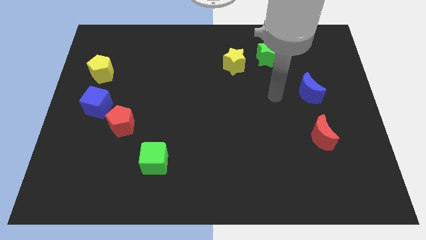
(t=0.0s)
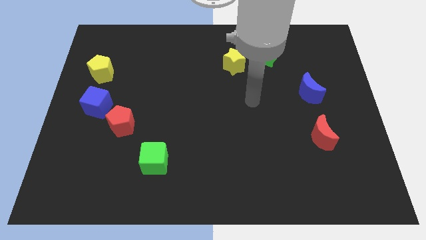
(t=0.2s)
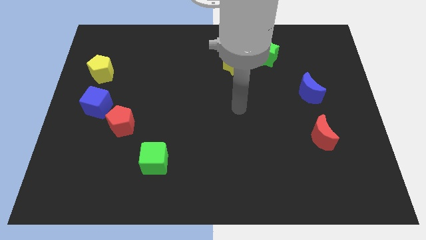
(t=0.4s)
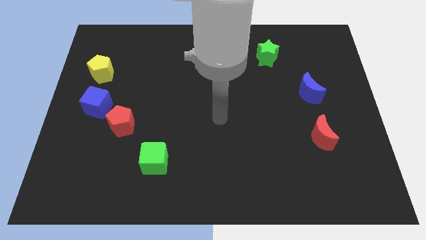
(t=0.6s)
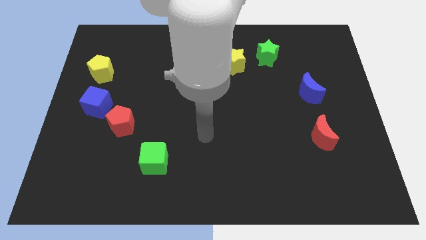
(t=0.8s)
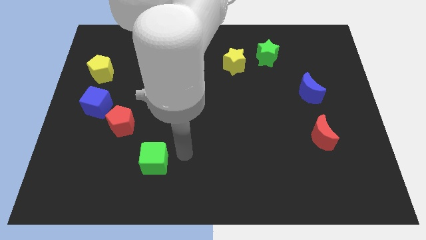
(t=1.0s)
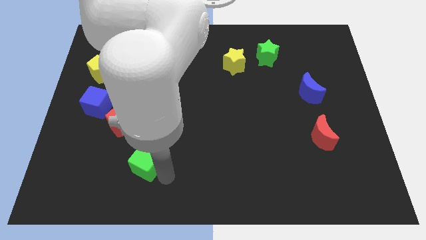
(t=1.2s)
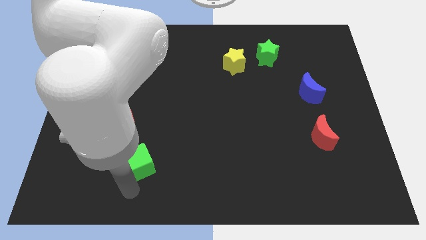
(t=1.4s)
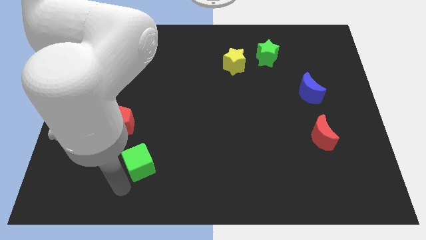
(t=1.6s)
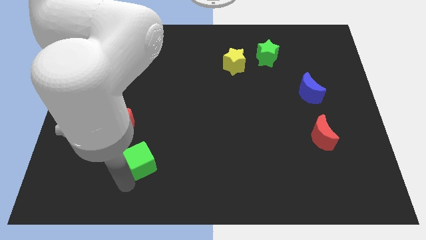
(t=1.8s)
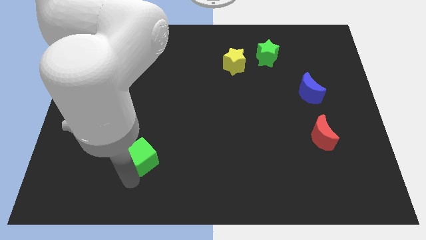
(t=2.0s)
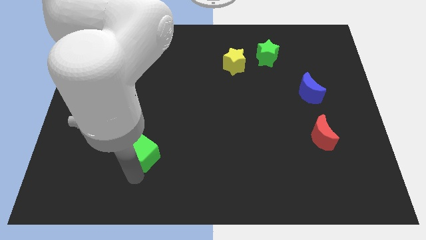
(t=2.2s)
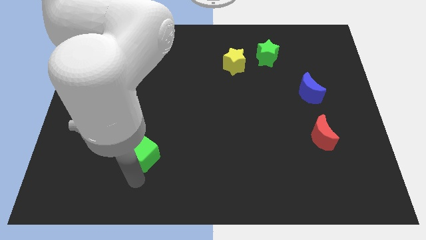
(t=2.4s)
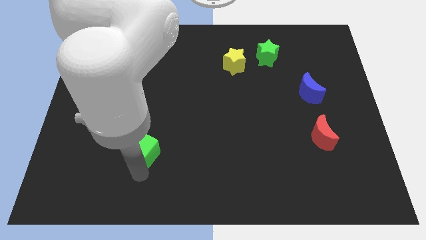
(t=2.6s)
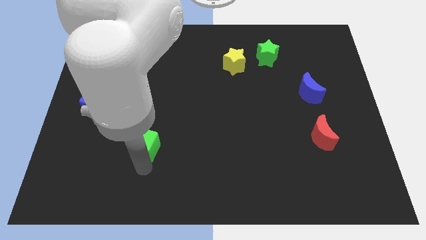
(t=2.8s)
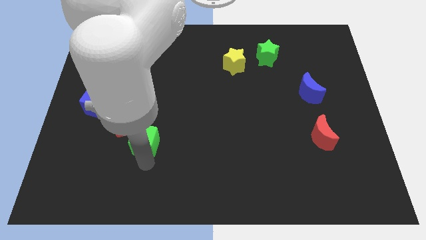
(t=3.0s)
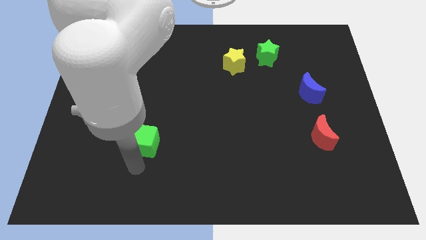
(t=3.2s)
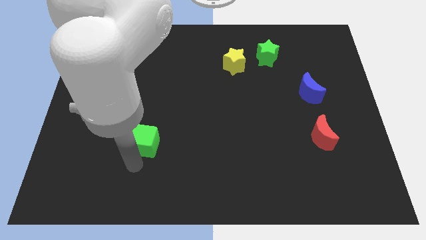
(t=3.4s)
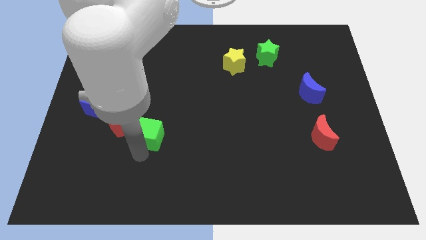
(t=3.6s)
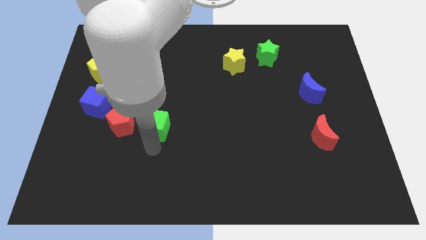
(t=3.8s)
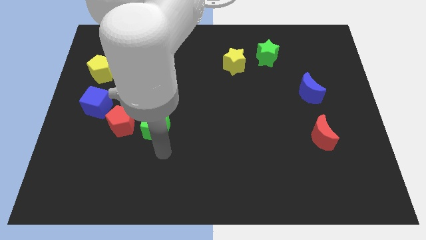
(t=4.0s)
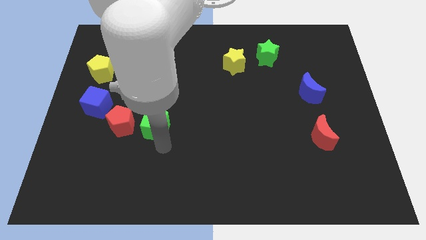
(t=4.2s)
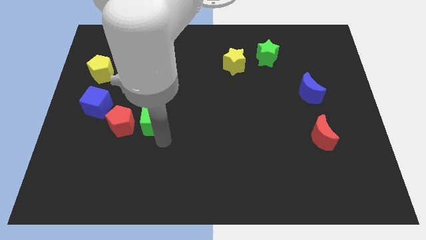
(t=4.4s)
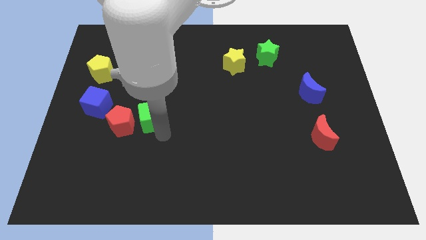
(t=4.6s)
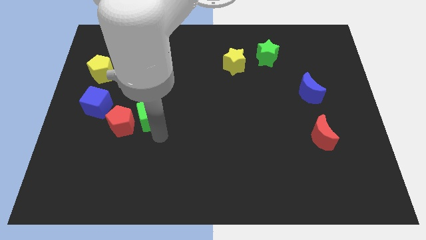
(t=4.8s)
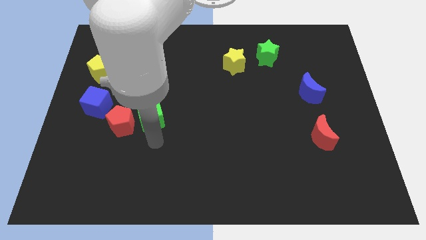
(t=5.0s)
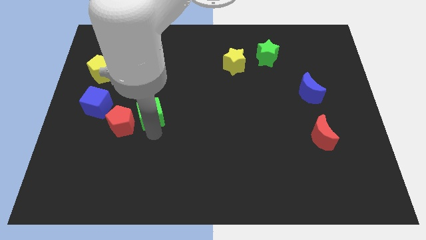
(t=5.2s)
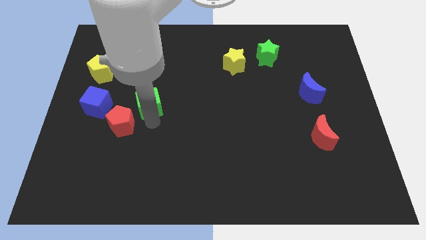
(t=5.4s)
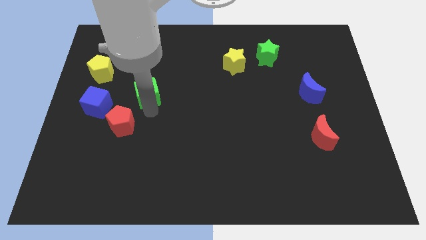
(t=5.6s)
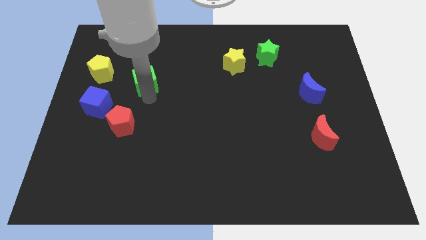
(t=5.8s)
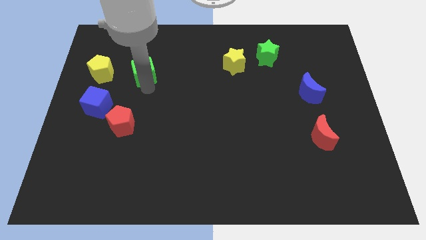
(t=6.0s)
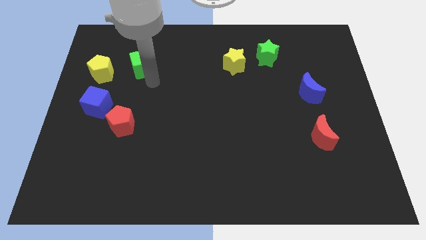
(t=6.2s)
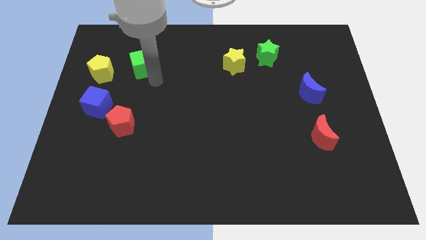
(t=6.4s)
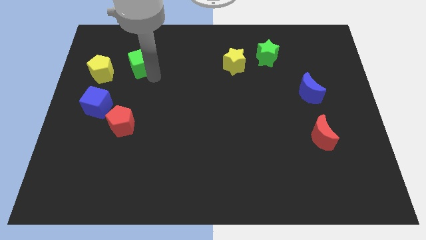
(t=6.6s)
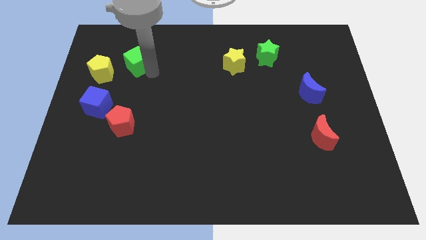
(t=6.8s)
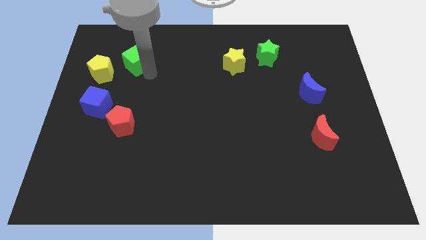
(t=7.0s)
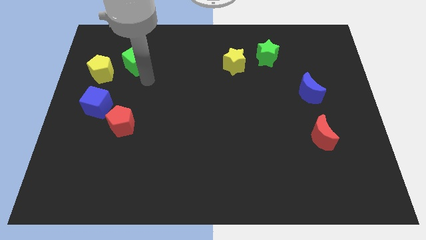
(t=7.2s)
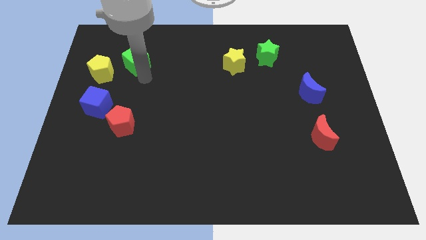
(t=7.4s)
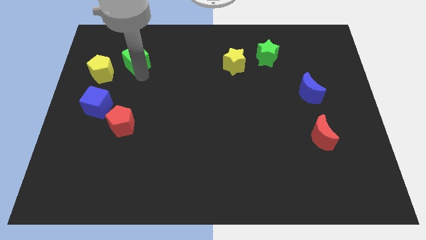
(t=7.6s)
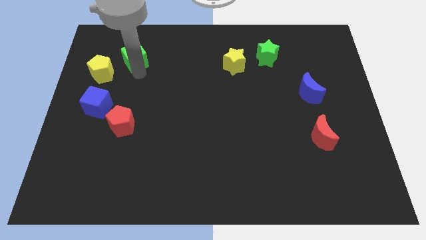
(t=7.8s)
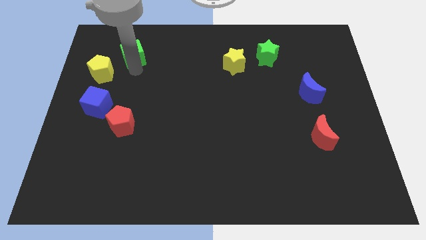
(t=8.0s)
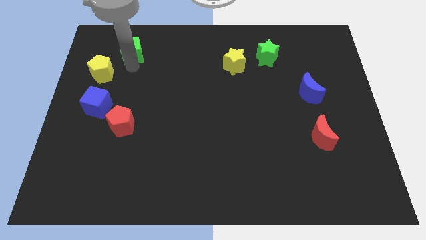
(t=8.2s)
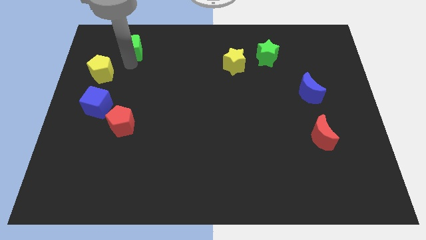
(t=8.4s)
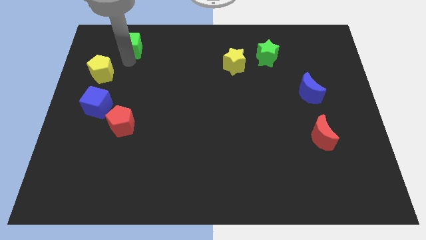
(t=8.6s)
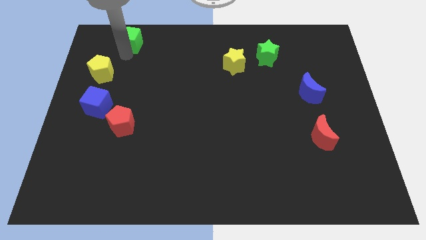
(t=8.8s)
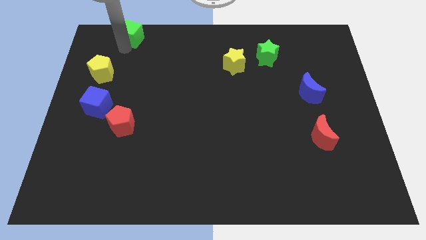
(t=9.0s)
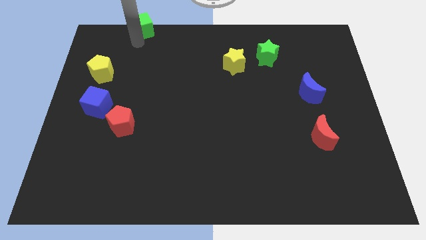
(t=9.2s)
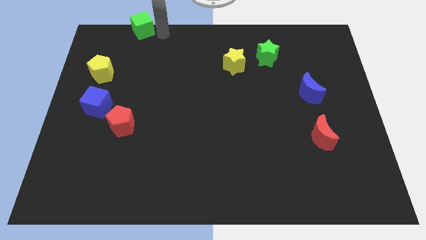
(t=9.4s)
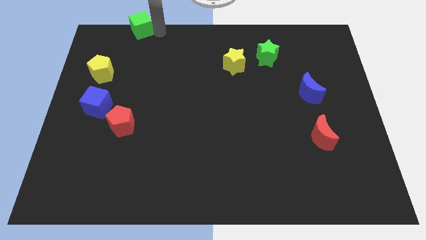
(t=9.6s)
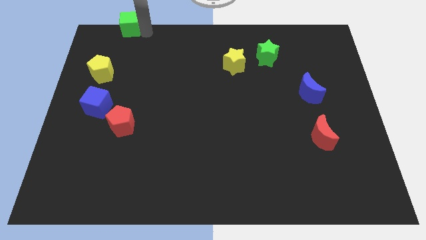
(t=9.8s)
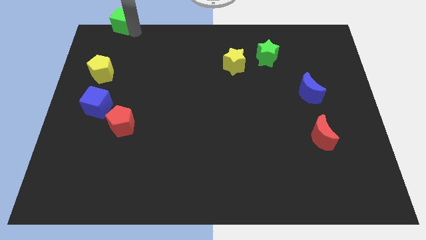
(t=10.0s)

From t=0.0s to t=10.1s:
move the green cube to the upper left corner

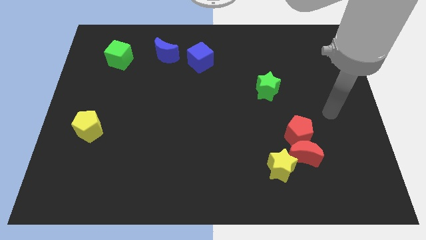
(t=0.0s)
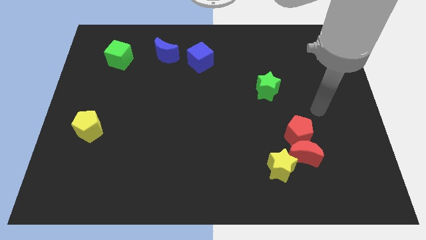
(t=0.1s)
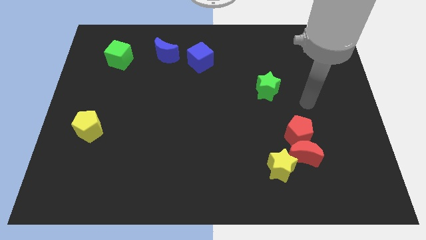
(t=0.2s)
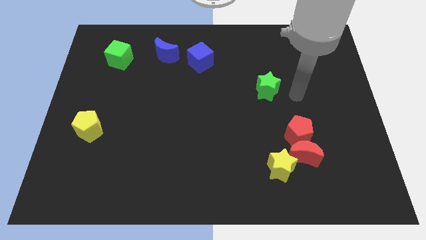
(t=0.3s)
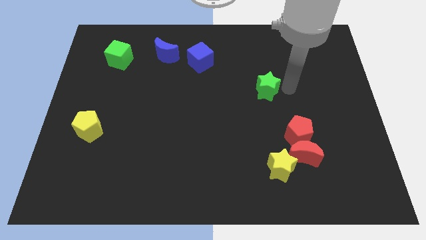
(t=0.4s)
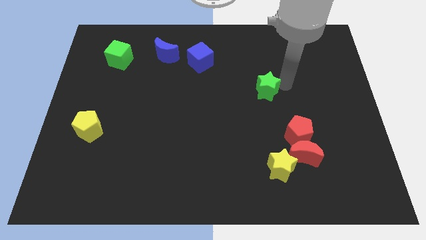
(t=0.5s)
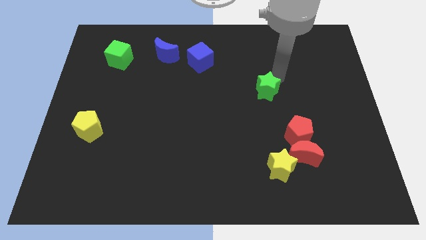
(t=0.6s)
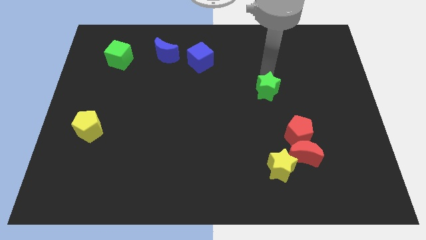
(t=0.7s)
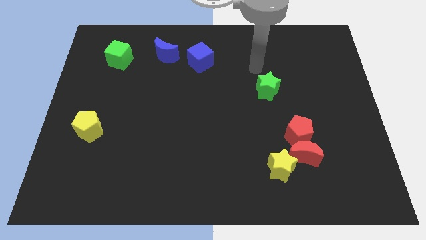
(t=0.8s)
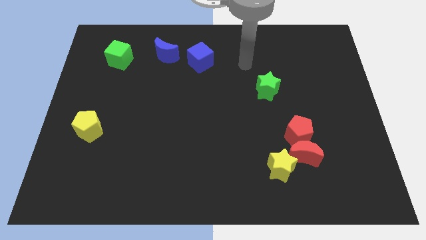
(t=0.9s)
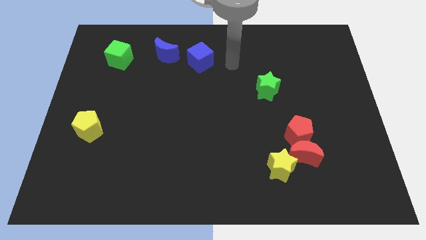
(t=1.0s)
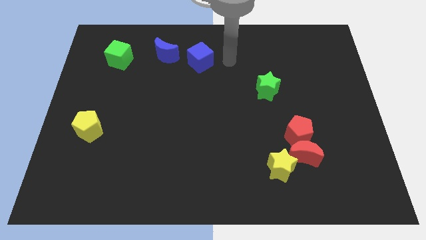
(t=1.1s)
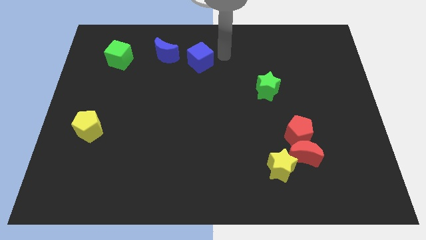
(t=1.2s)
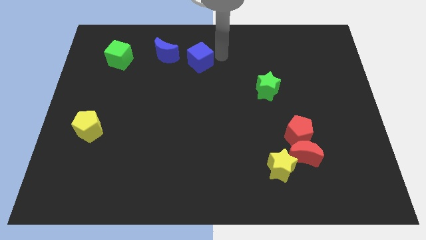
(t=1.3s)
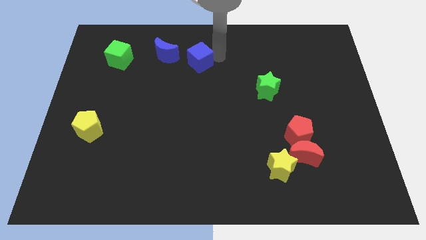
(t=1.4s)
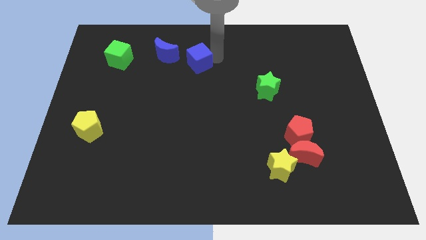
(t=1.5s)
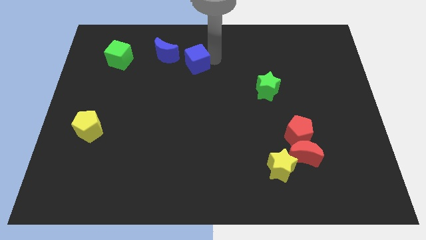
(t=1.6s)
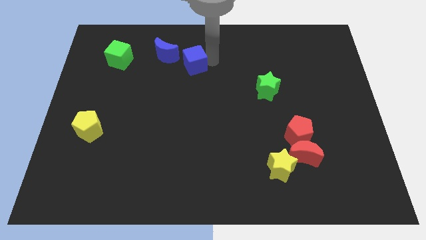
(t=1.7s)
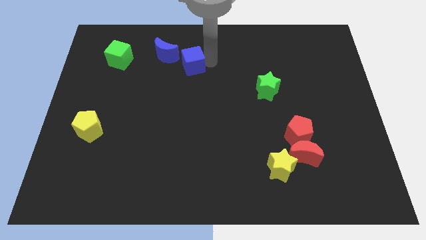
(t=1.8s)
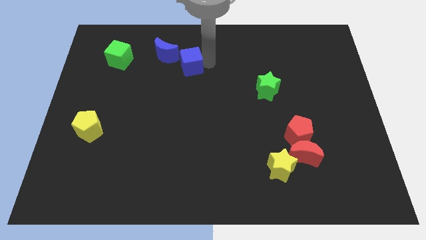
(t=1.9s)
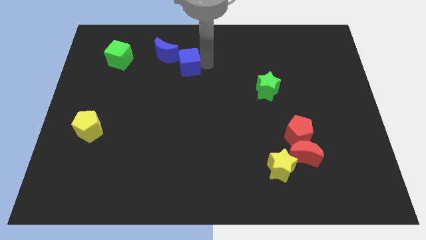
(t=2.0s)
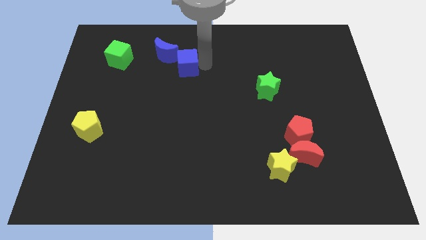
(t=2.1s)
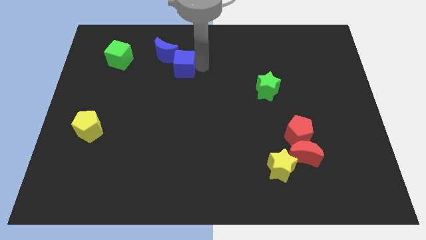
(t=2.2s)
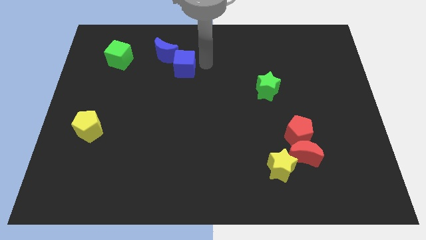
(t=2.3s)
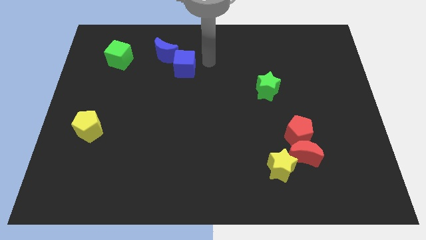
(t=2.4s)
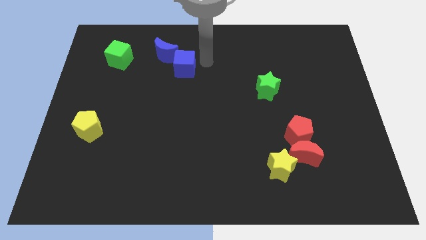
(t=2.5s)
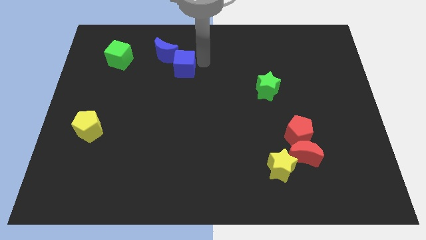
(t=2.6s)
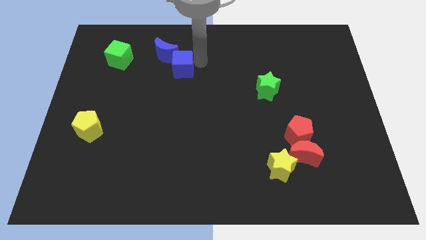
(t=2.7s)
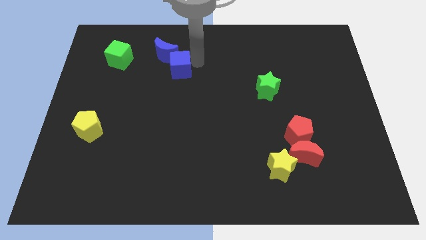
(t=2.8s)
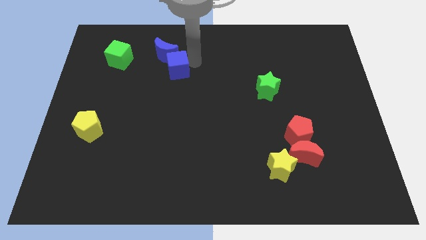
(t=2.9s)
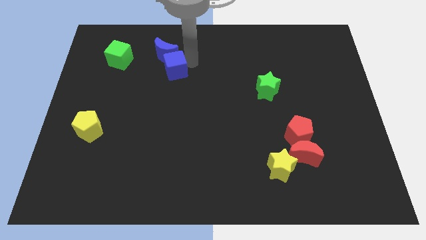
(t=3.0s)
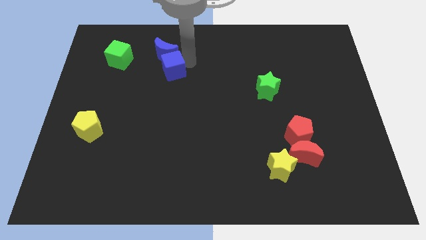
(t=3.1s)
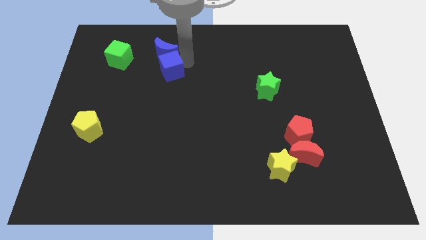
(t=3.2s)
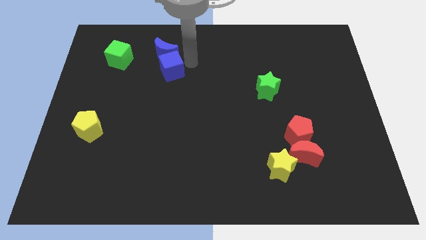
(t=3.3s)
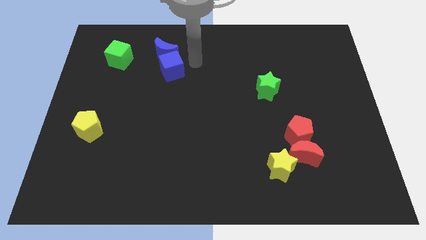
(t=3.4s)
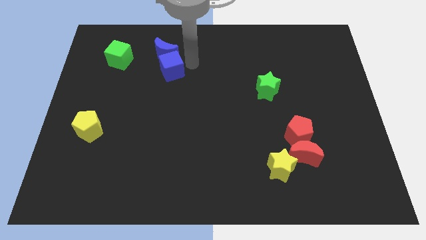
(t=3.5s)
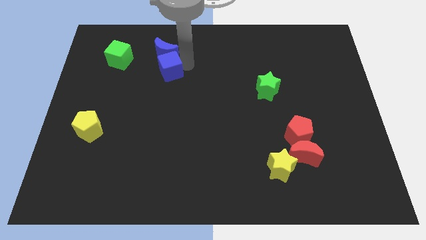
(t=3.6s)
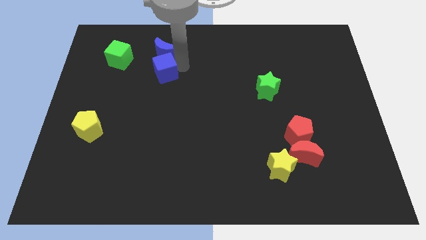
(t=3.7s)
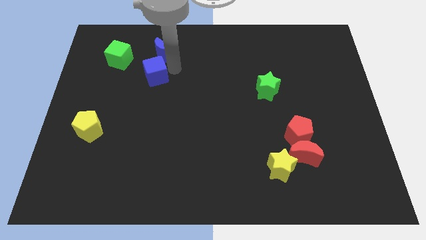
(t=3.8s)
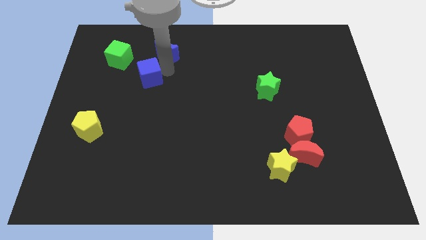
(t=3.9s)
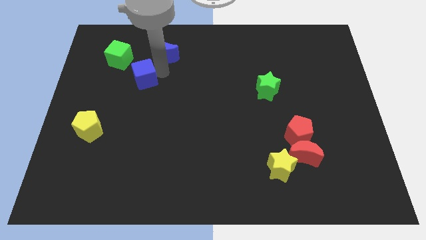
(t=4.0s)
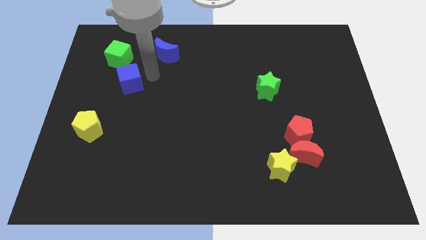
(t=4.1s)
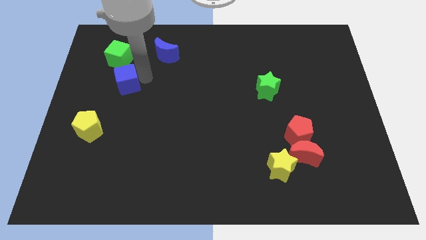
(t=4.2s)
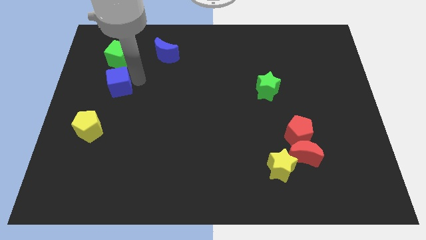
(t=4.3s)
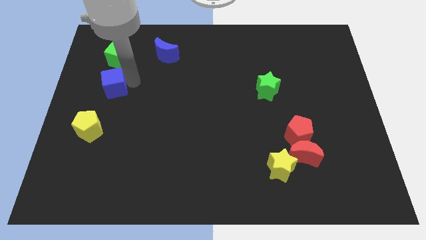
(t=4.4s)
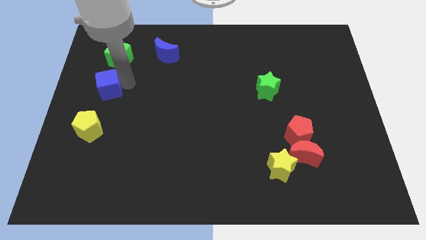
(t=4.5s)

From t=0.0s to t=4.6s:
move the blue cube to the center left
